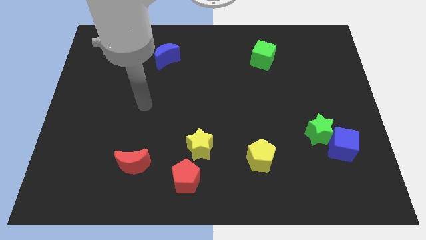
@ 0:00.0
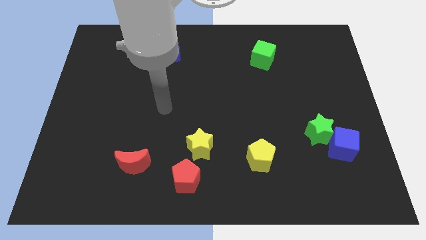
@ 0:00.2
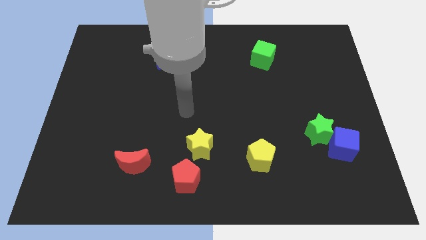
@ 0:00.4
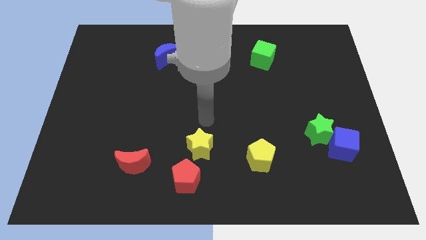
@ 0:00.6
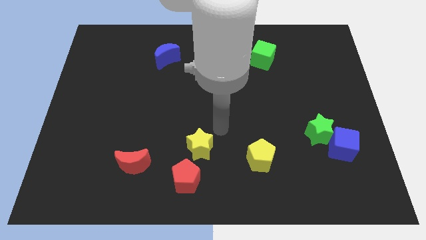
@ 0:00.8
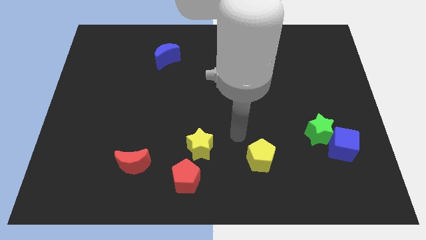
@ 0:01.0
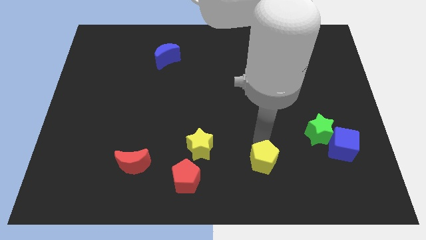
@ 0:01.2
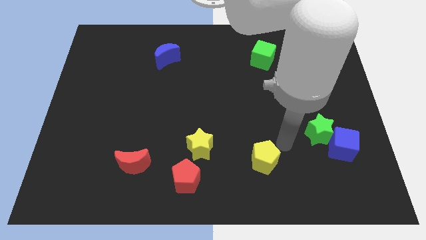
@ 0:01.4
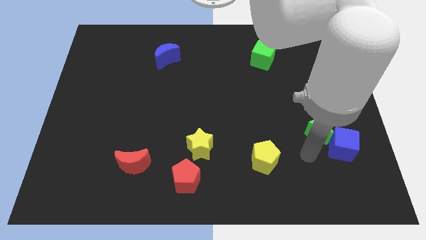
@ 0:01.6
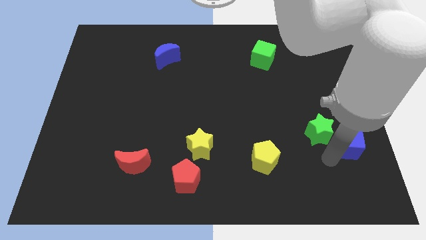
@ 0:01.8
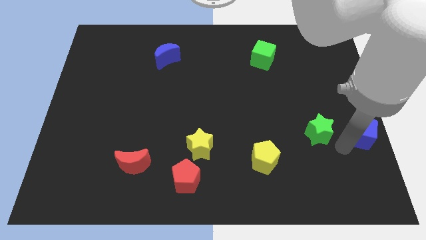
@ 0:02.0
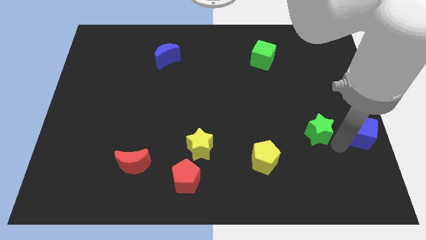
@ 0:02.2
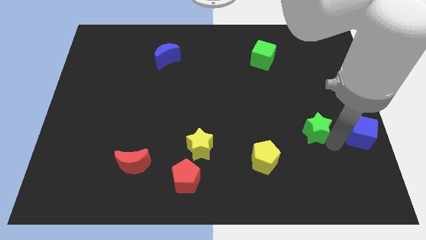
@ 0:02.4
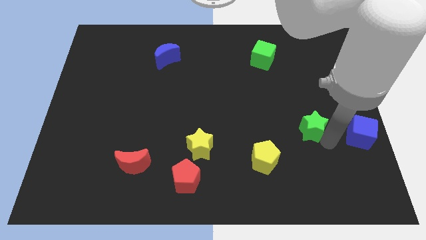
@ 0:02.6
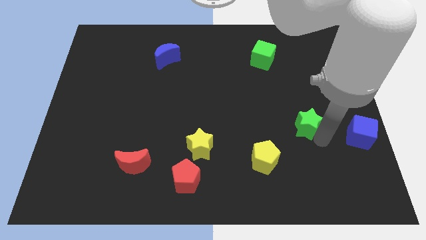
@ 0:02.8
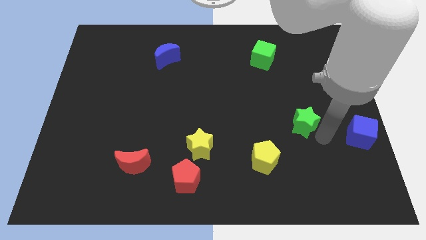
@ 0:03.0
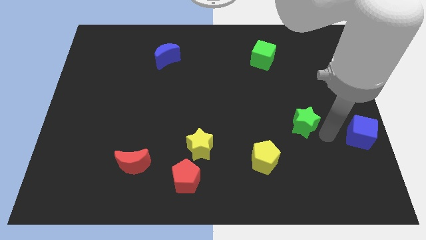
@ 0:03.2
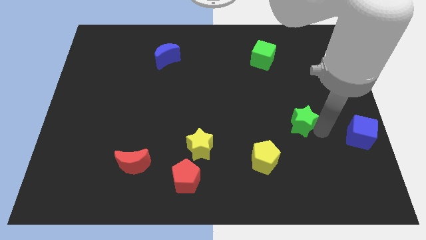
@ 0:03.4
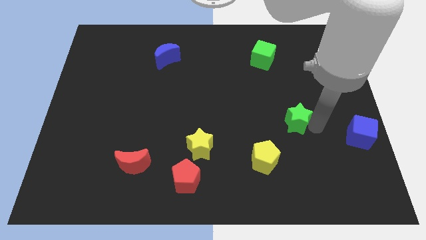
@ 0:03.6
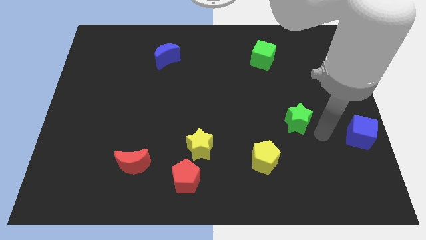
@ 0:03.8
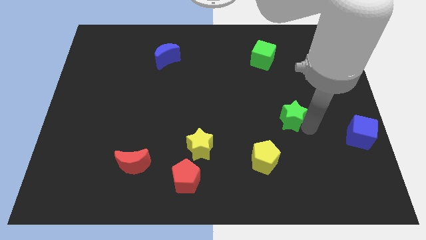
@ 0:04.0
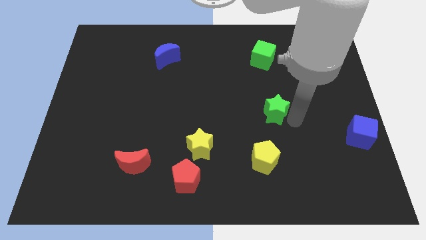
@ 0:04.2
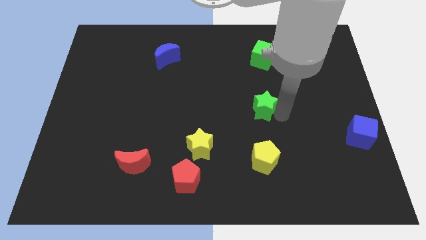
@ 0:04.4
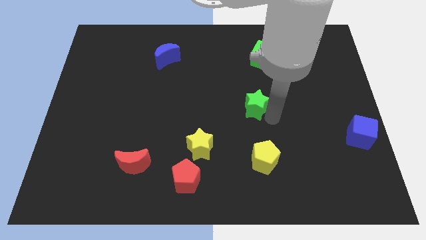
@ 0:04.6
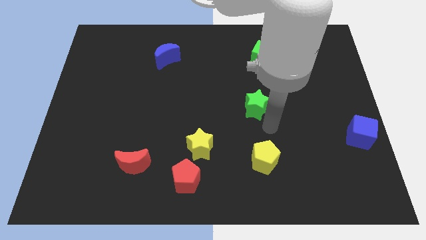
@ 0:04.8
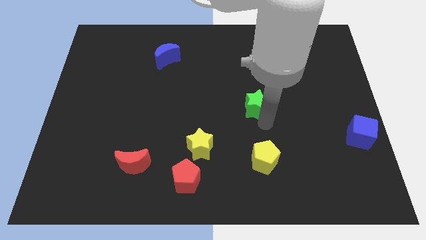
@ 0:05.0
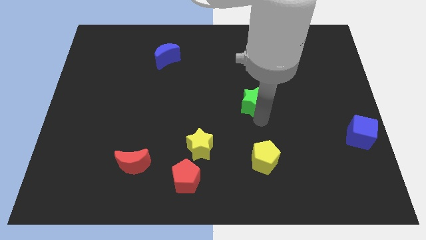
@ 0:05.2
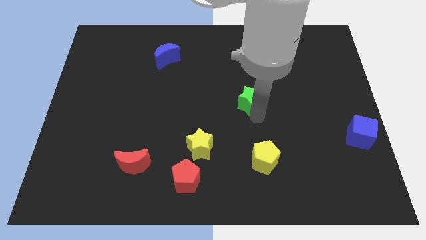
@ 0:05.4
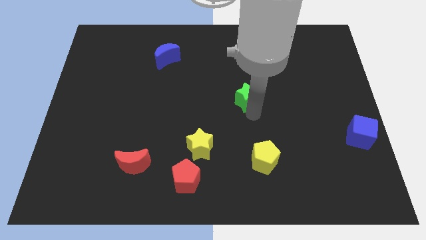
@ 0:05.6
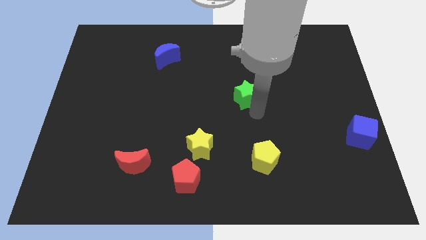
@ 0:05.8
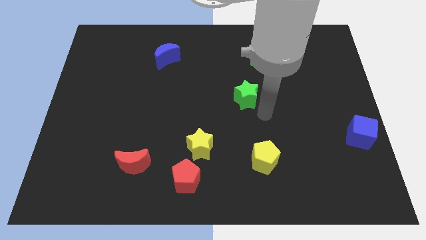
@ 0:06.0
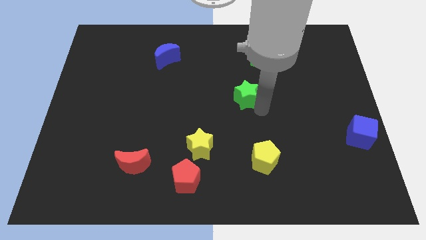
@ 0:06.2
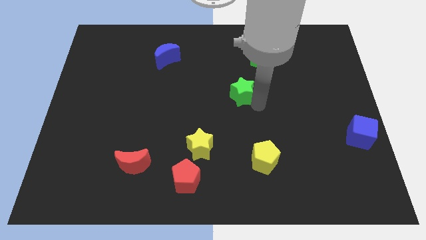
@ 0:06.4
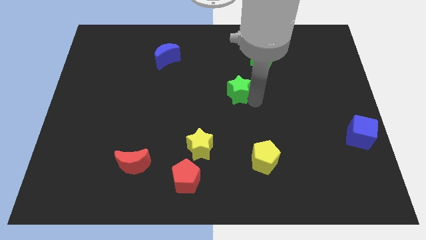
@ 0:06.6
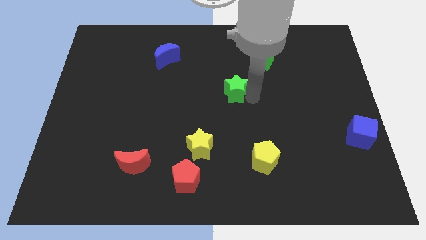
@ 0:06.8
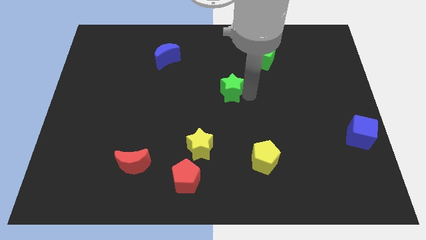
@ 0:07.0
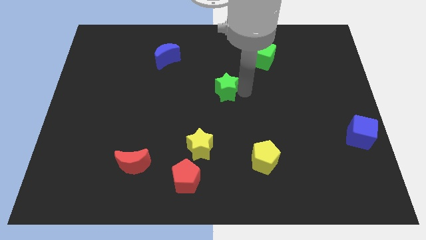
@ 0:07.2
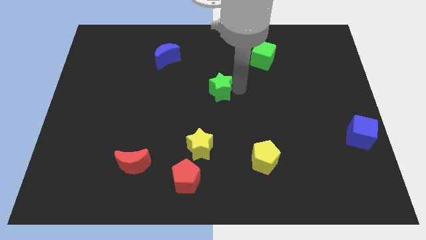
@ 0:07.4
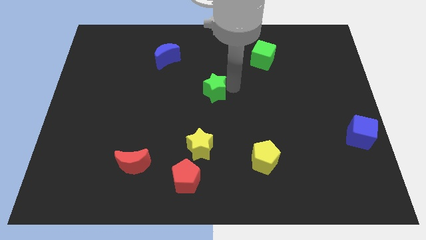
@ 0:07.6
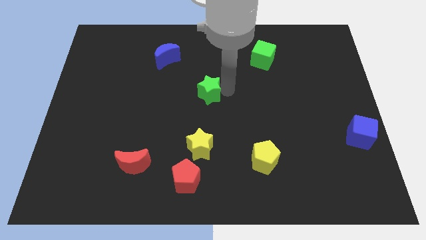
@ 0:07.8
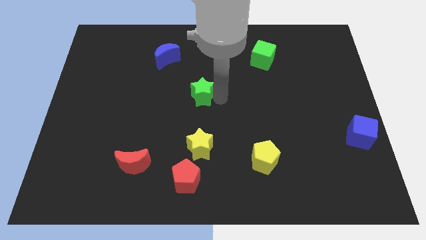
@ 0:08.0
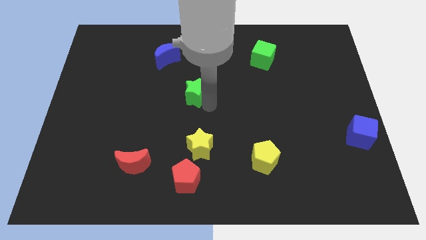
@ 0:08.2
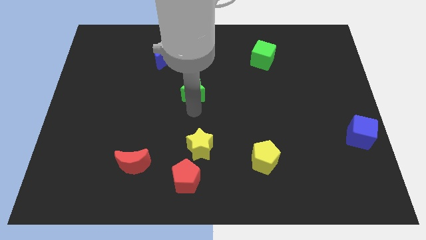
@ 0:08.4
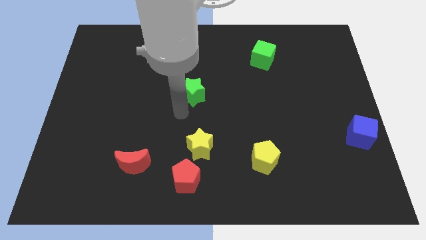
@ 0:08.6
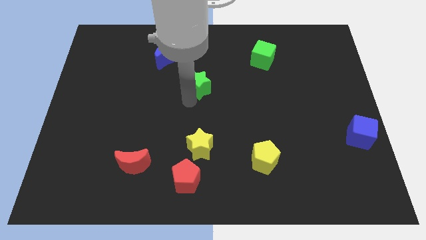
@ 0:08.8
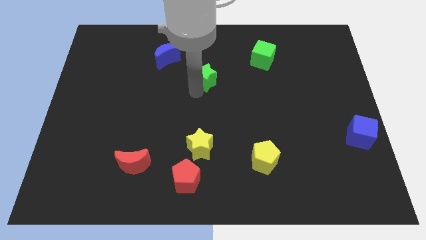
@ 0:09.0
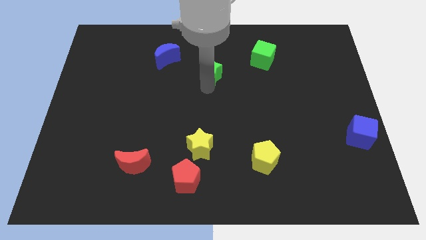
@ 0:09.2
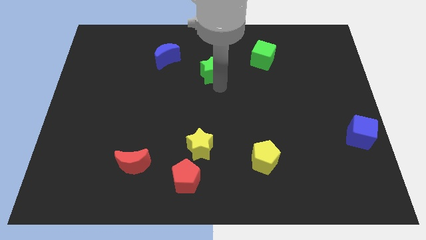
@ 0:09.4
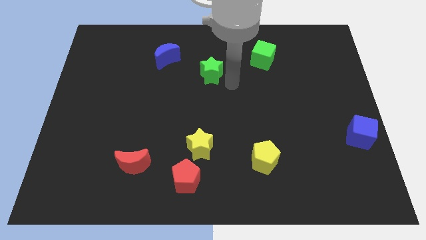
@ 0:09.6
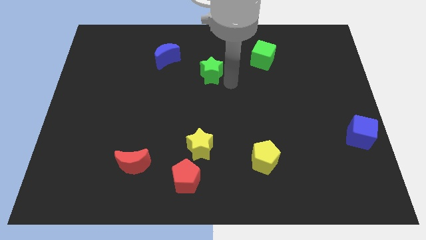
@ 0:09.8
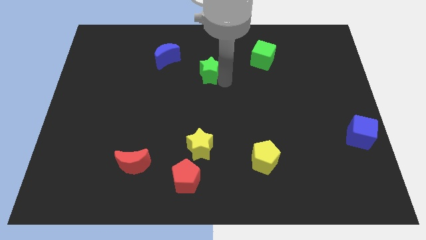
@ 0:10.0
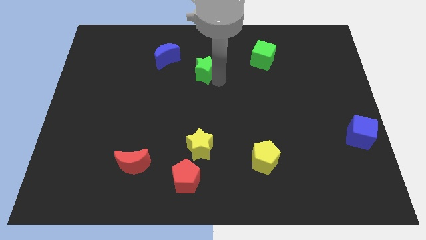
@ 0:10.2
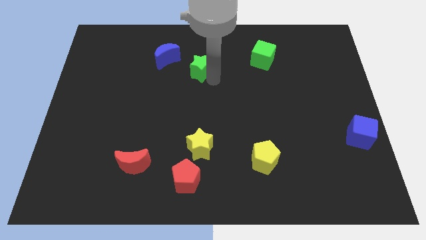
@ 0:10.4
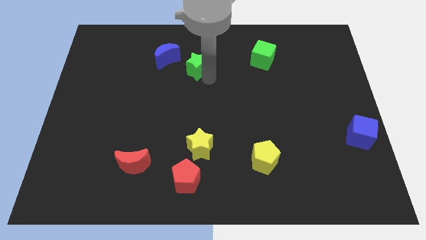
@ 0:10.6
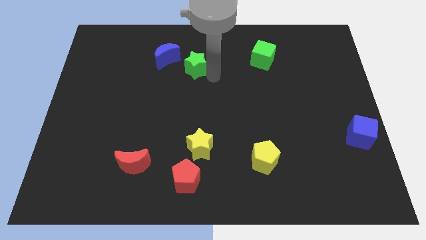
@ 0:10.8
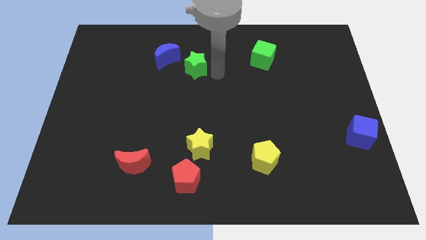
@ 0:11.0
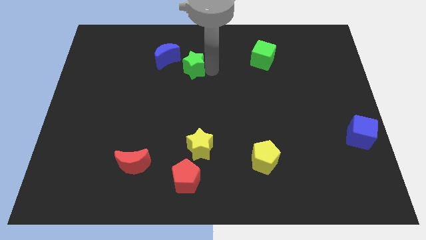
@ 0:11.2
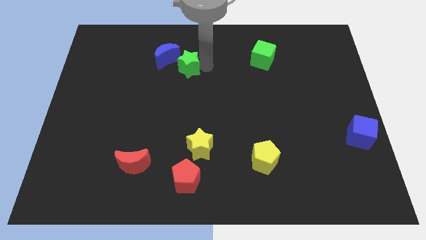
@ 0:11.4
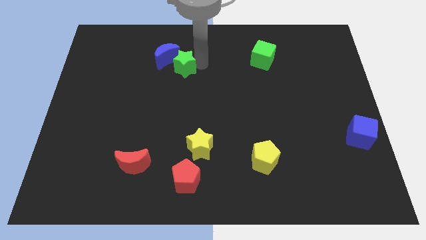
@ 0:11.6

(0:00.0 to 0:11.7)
move the green star close to the blue moon

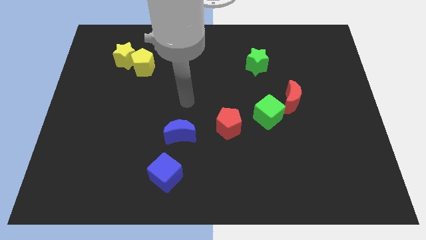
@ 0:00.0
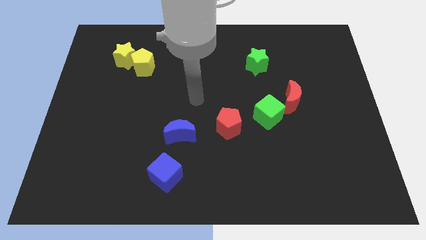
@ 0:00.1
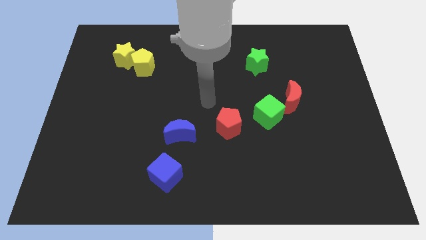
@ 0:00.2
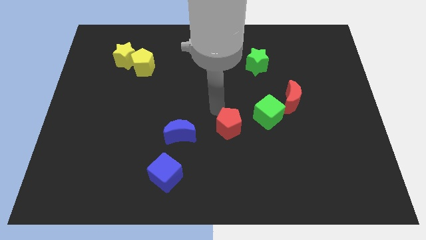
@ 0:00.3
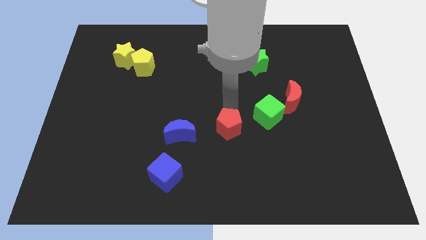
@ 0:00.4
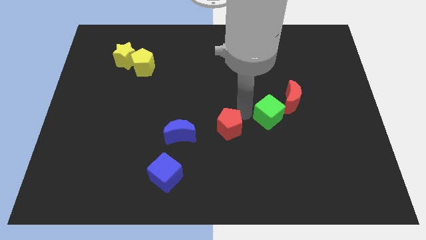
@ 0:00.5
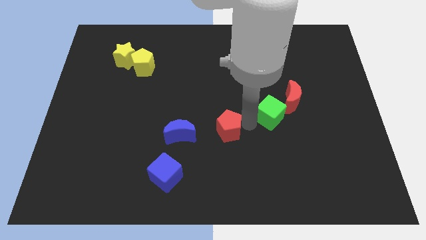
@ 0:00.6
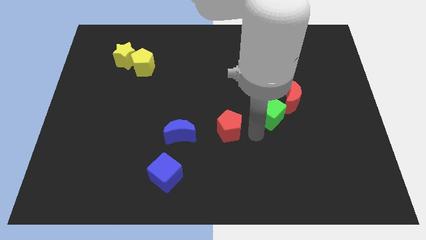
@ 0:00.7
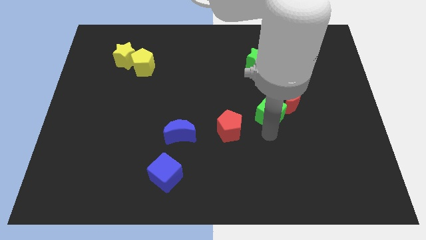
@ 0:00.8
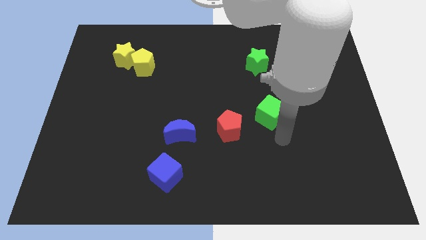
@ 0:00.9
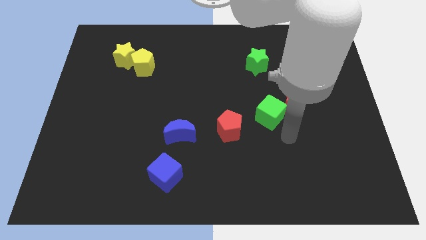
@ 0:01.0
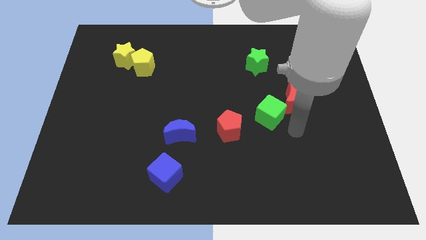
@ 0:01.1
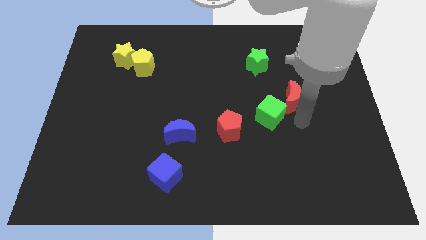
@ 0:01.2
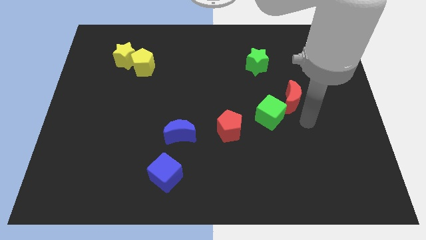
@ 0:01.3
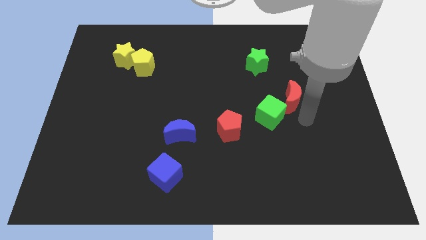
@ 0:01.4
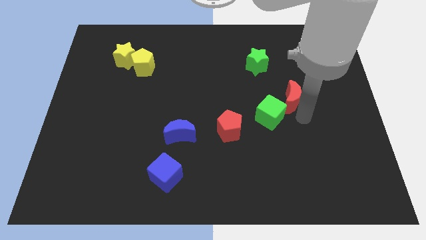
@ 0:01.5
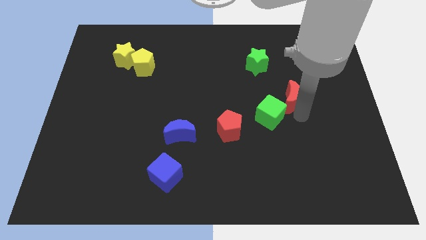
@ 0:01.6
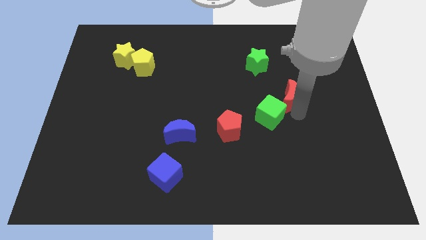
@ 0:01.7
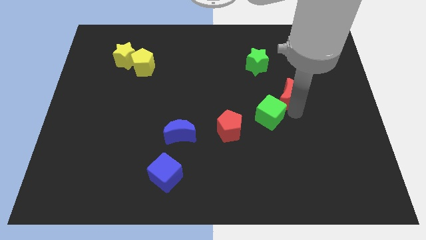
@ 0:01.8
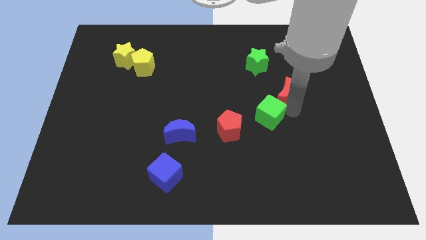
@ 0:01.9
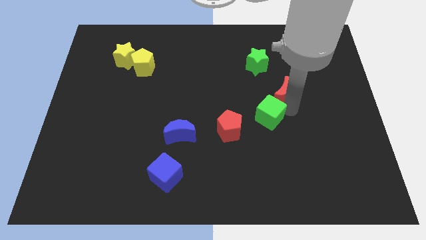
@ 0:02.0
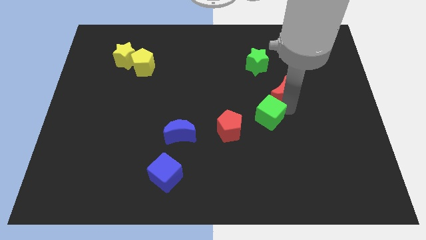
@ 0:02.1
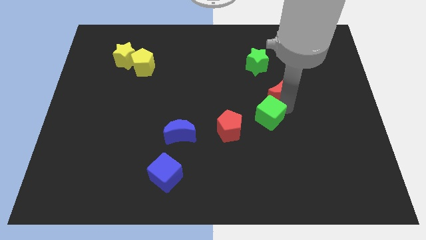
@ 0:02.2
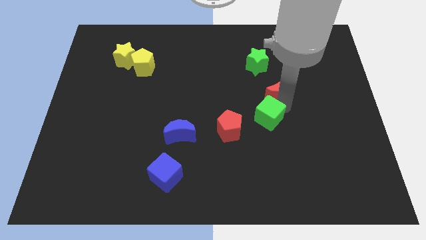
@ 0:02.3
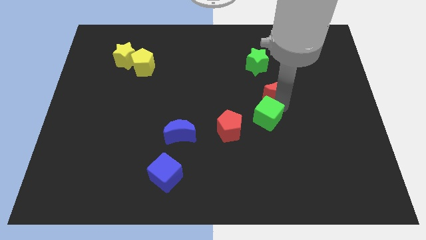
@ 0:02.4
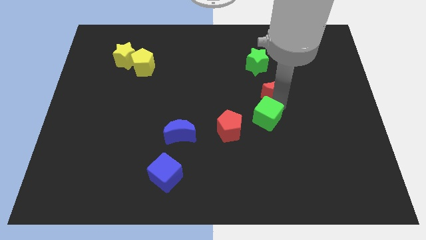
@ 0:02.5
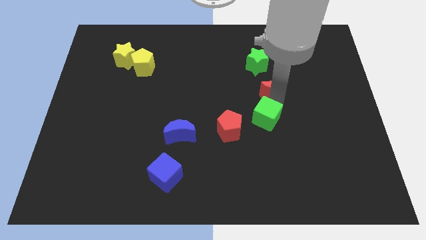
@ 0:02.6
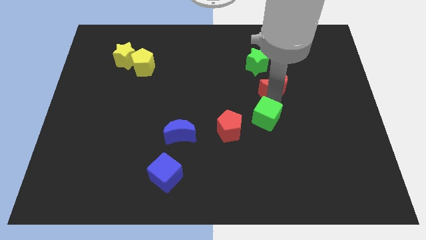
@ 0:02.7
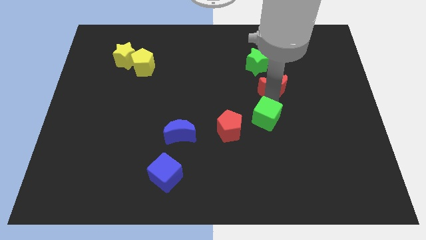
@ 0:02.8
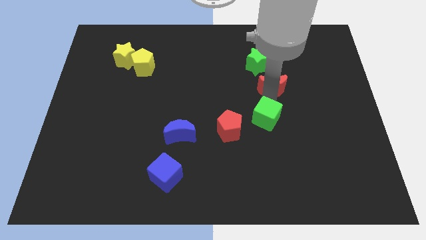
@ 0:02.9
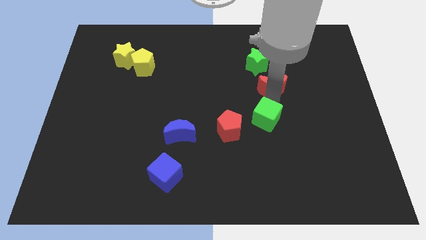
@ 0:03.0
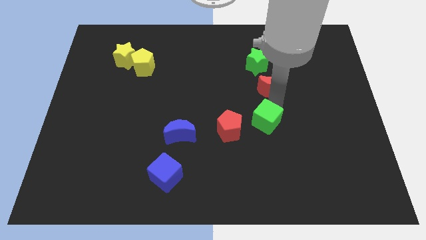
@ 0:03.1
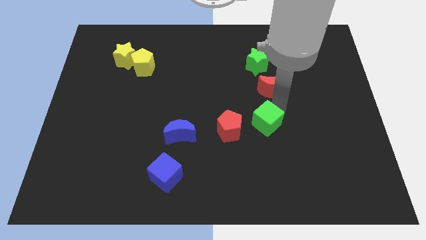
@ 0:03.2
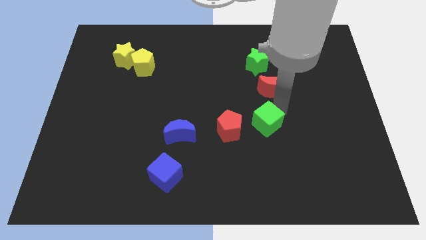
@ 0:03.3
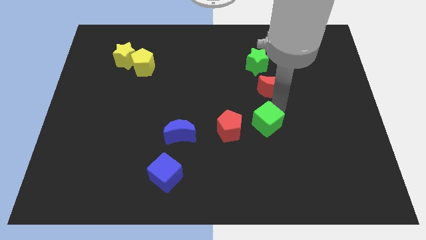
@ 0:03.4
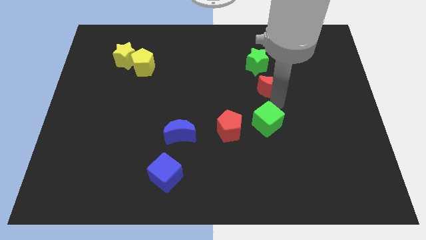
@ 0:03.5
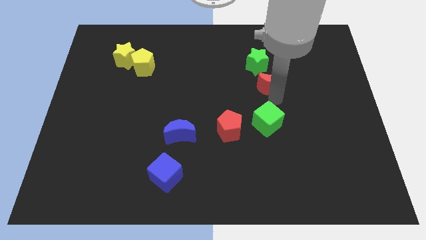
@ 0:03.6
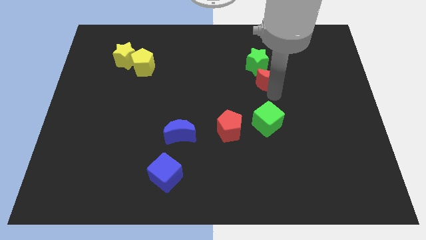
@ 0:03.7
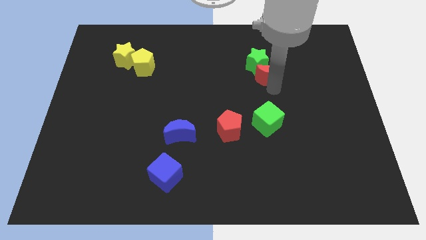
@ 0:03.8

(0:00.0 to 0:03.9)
move the red moon to the green star
